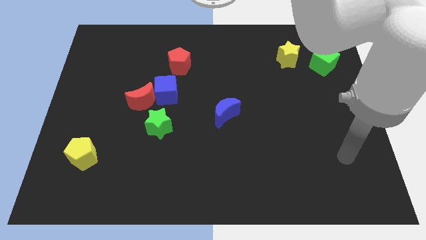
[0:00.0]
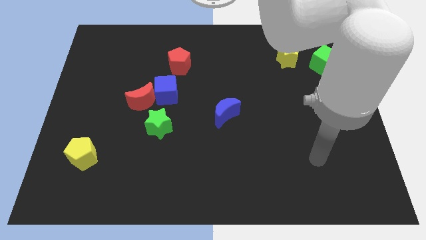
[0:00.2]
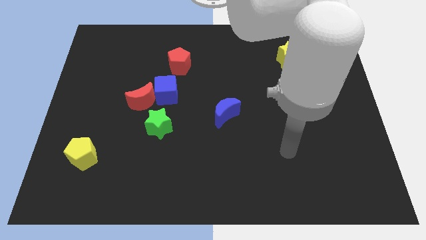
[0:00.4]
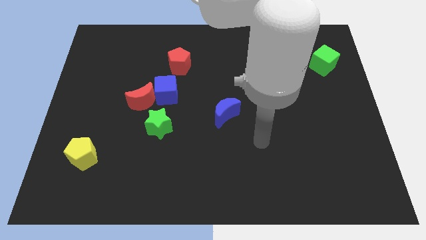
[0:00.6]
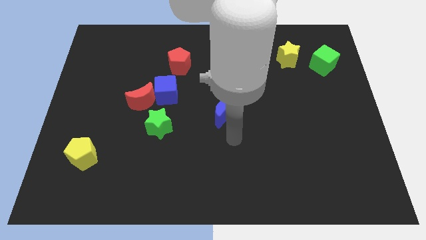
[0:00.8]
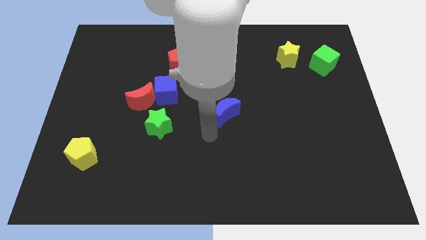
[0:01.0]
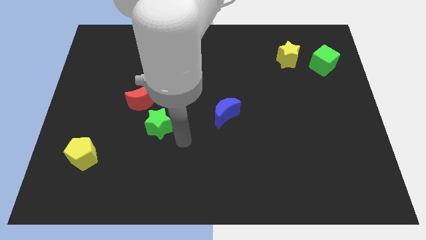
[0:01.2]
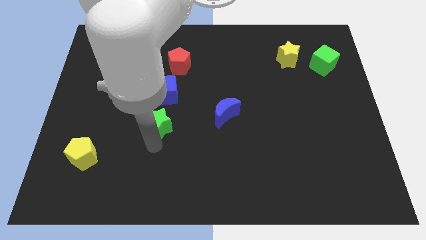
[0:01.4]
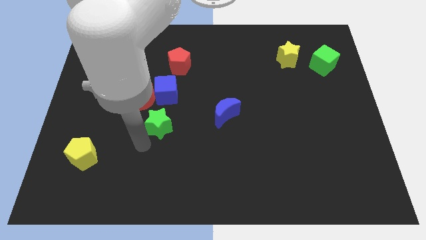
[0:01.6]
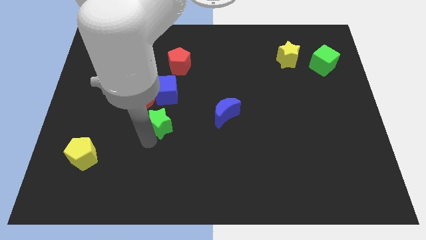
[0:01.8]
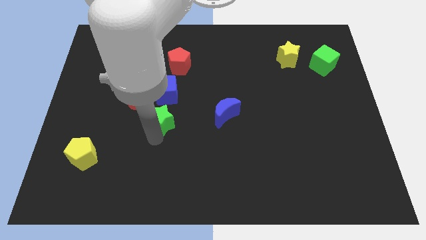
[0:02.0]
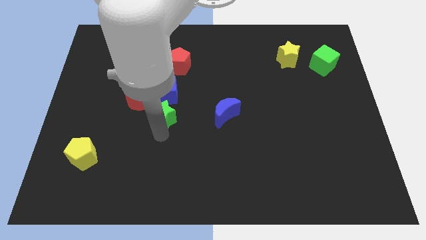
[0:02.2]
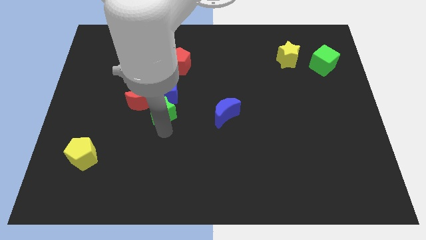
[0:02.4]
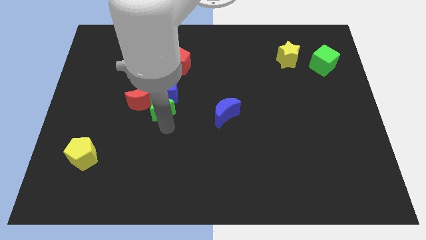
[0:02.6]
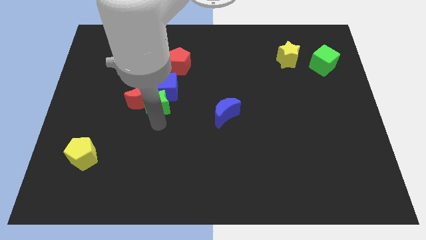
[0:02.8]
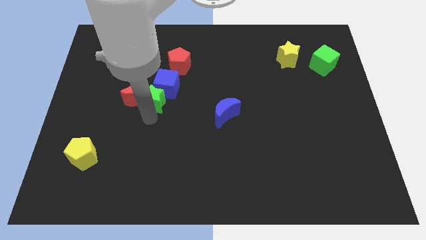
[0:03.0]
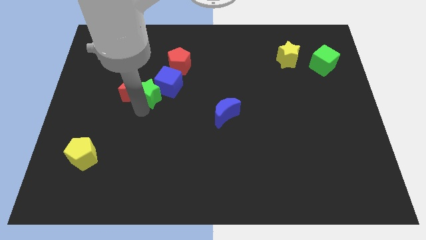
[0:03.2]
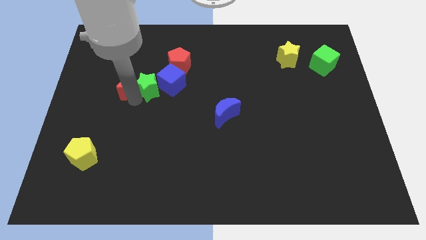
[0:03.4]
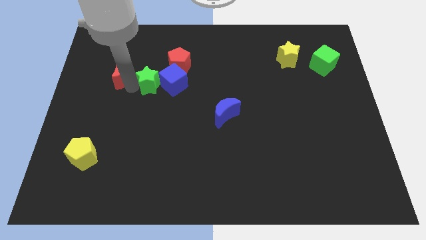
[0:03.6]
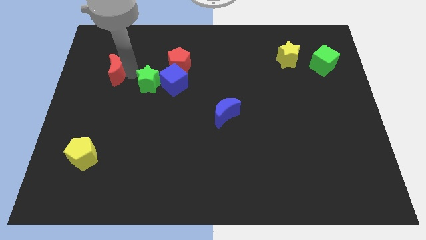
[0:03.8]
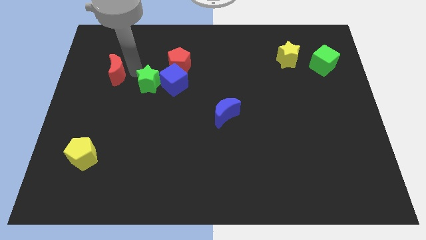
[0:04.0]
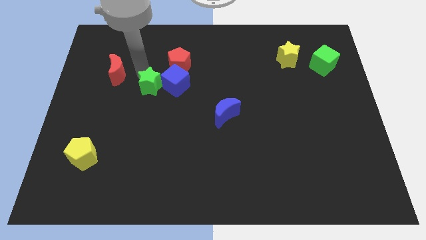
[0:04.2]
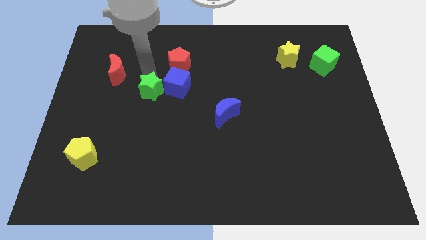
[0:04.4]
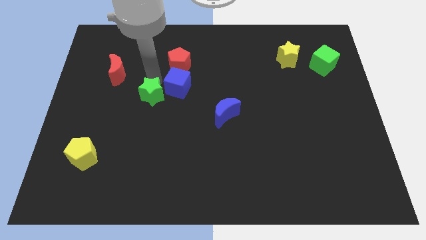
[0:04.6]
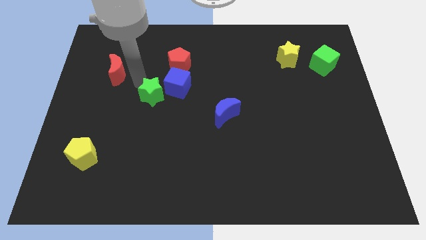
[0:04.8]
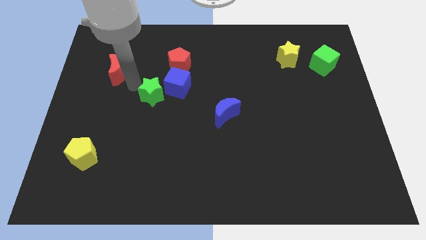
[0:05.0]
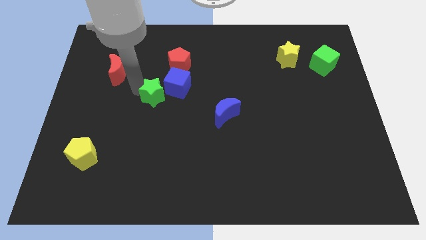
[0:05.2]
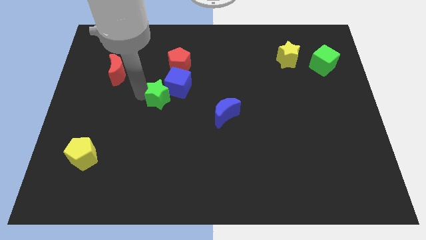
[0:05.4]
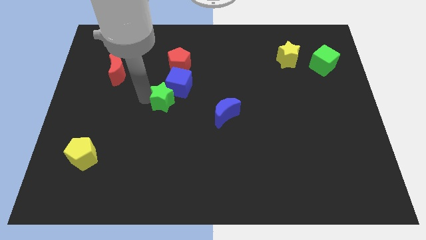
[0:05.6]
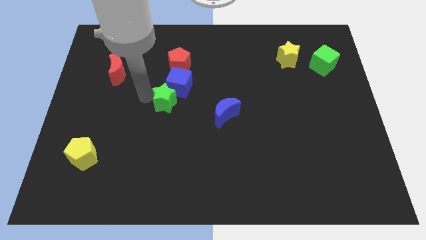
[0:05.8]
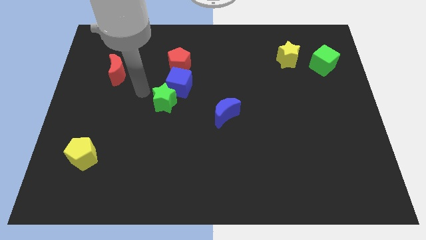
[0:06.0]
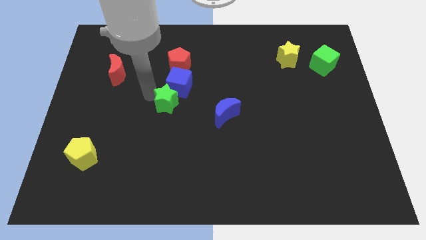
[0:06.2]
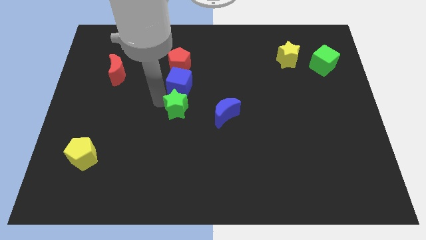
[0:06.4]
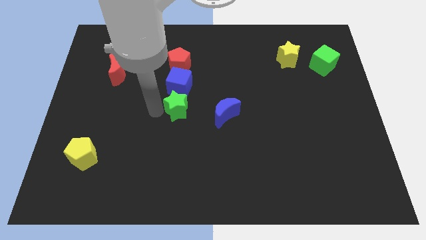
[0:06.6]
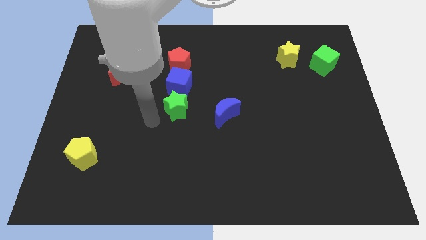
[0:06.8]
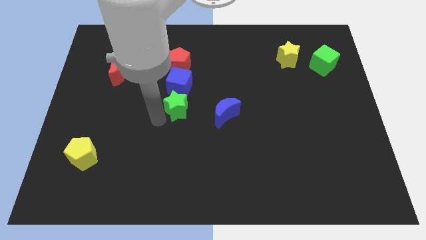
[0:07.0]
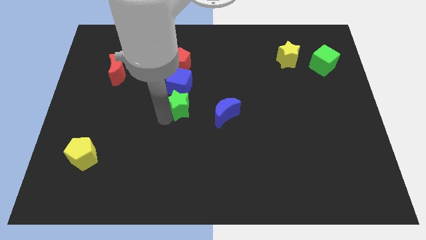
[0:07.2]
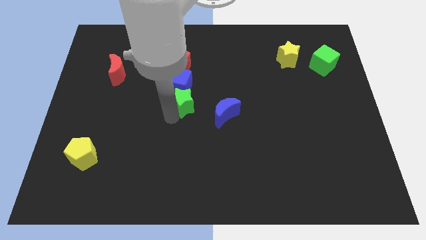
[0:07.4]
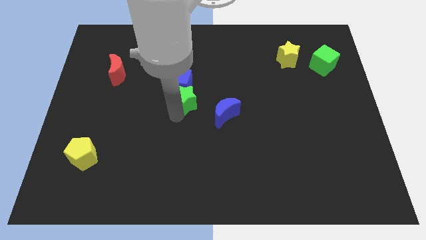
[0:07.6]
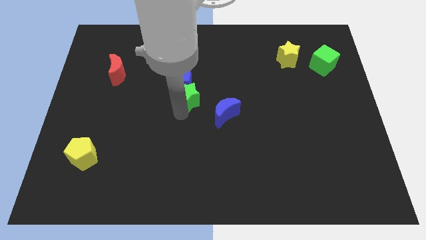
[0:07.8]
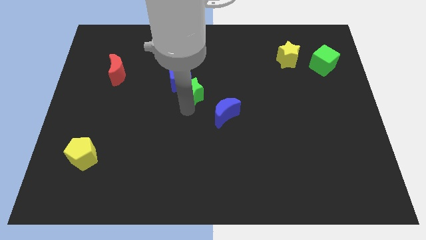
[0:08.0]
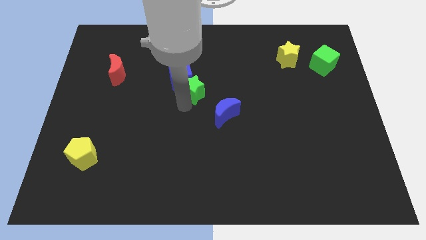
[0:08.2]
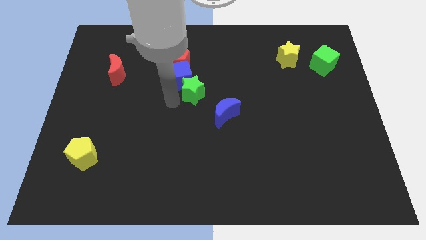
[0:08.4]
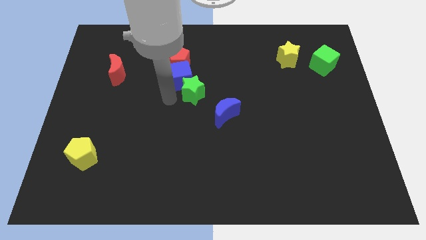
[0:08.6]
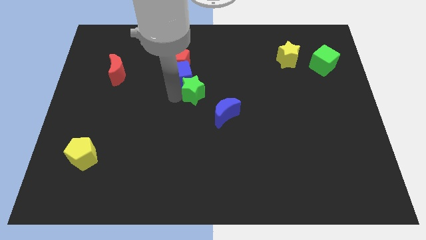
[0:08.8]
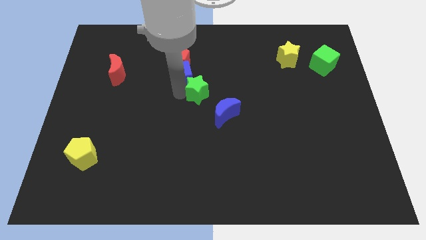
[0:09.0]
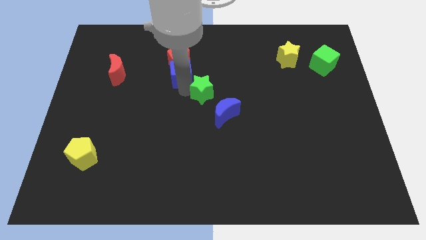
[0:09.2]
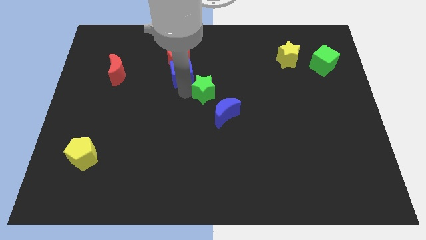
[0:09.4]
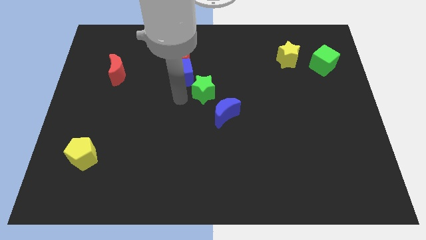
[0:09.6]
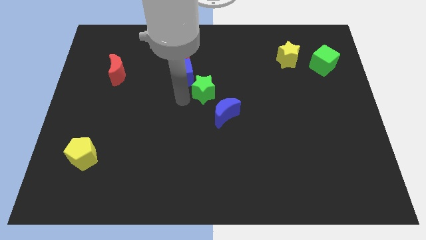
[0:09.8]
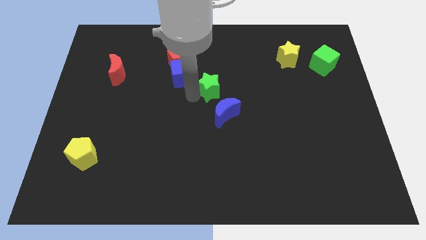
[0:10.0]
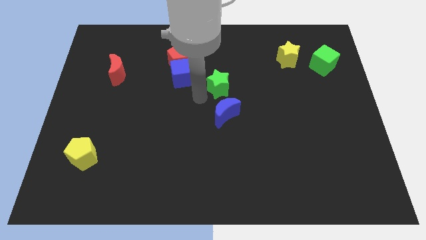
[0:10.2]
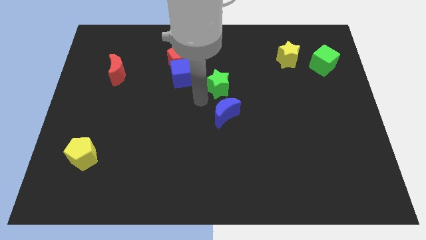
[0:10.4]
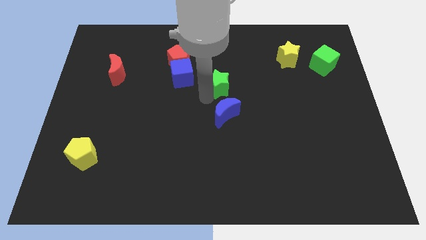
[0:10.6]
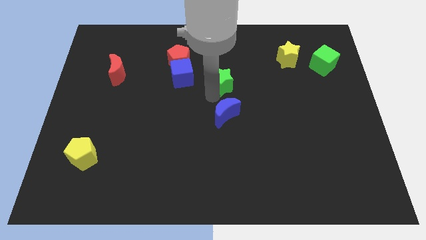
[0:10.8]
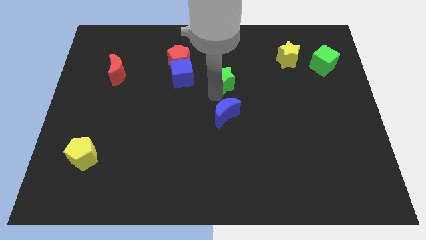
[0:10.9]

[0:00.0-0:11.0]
slide the green star up and then right

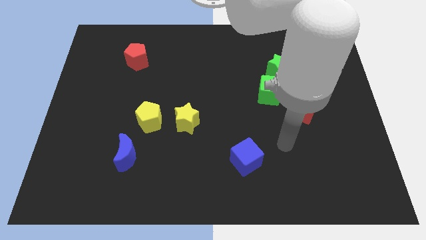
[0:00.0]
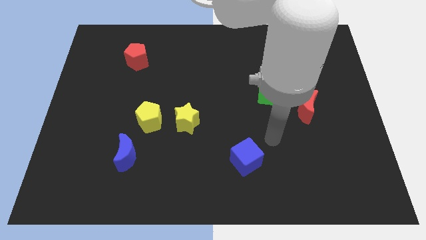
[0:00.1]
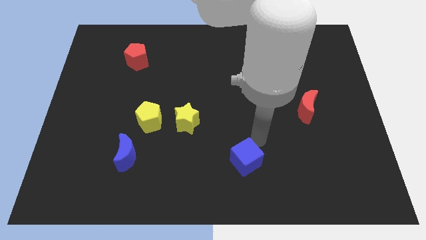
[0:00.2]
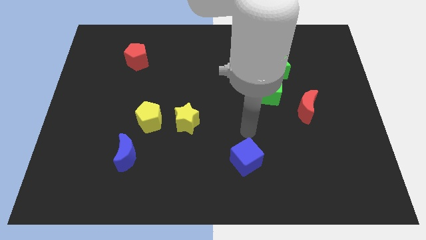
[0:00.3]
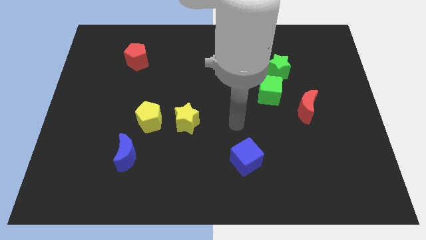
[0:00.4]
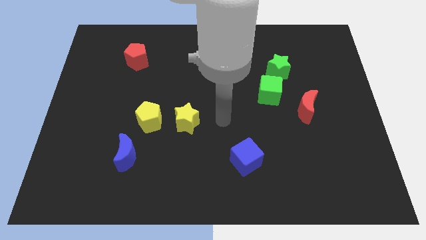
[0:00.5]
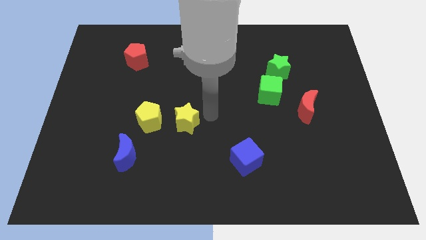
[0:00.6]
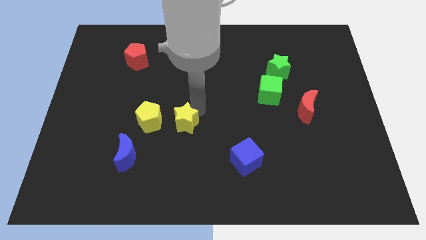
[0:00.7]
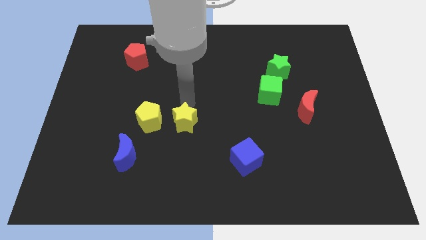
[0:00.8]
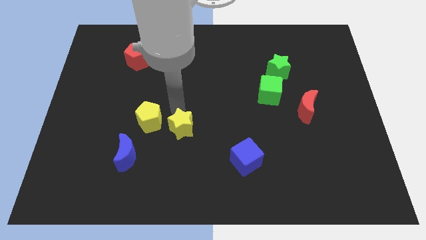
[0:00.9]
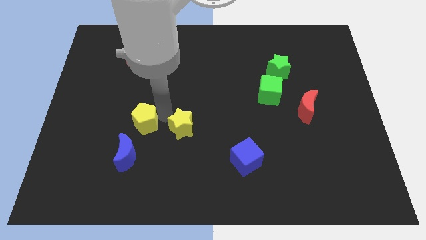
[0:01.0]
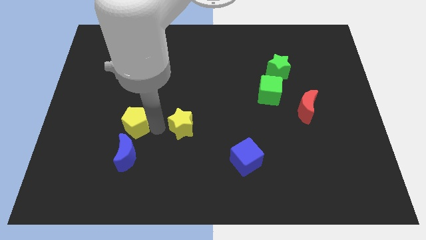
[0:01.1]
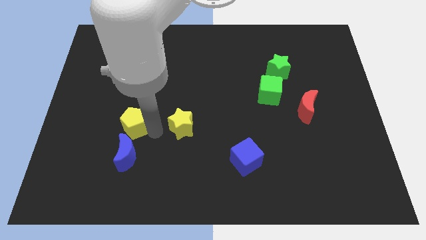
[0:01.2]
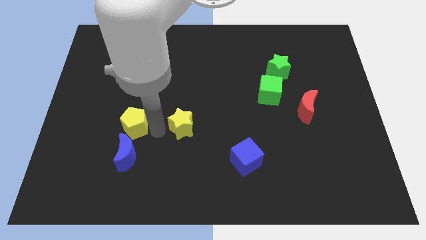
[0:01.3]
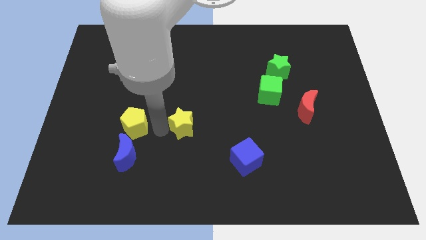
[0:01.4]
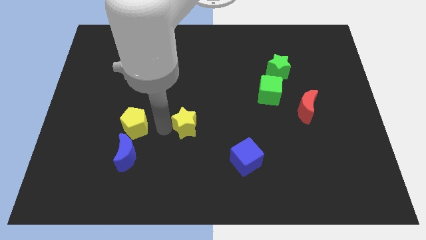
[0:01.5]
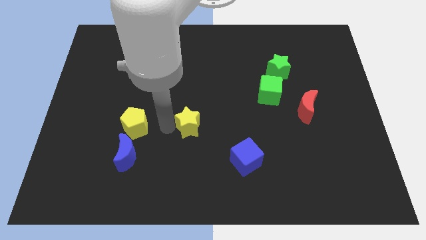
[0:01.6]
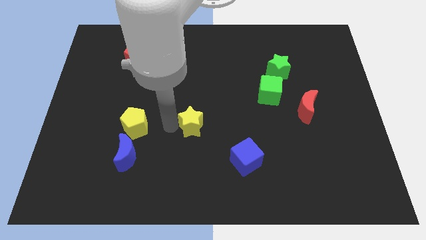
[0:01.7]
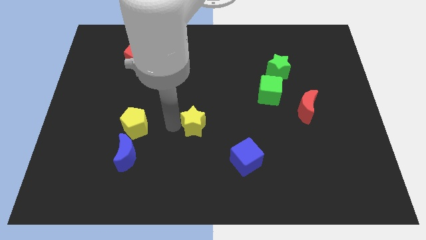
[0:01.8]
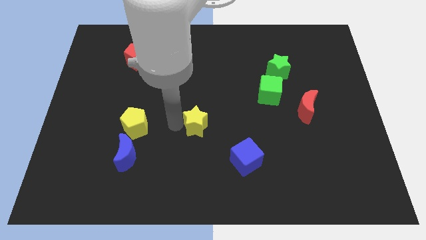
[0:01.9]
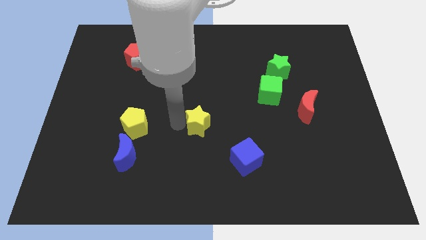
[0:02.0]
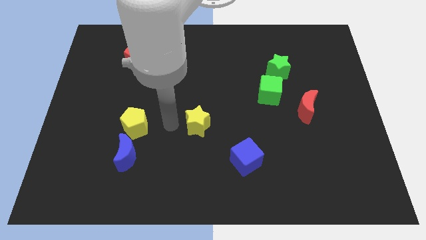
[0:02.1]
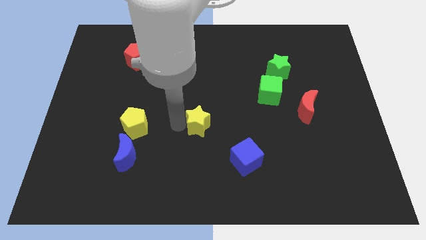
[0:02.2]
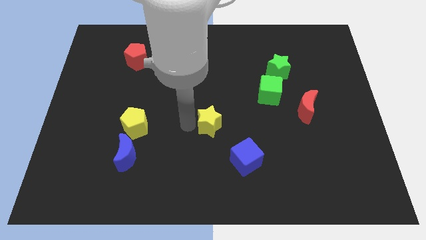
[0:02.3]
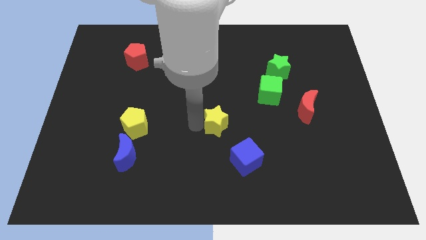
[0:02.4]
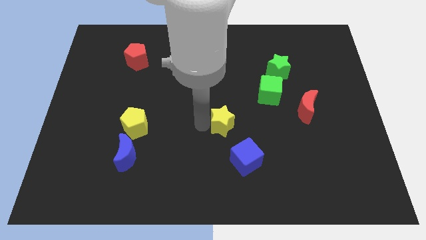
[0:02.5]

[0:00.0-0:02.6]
slide the yellow star right a bit
